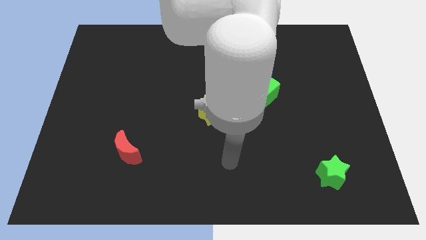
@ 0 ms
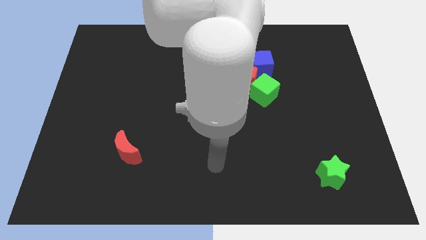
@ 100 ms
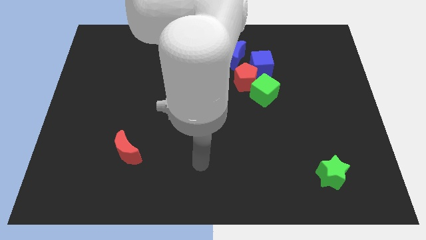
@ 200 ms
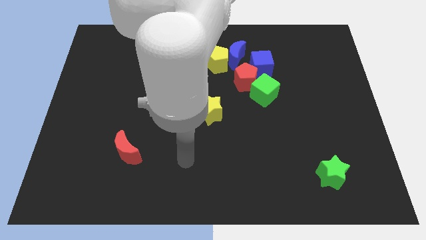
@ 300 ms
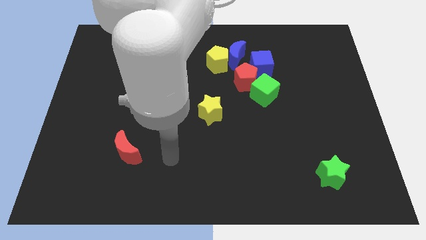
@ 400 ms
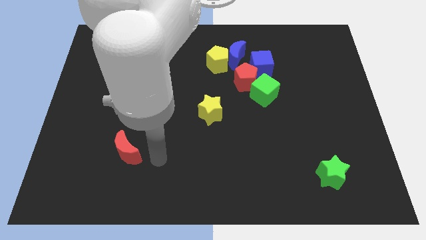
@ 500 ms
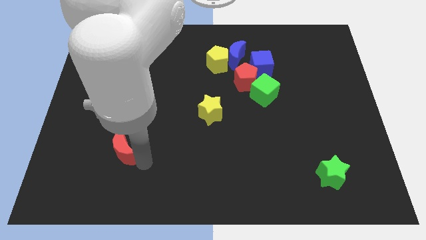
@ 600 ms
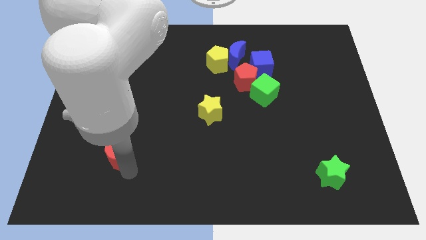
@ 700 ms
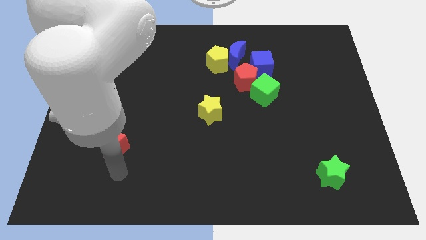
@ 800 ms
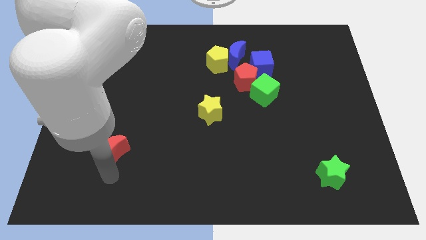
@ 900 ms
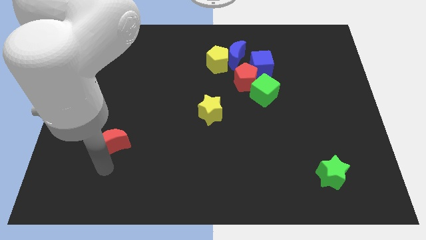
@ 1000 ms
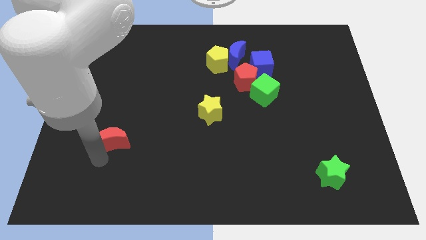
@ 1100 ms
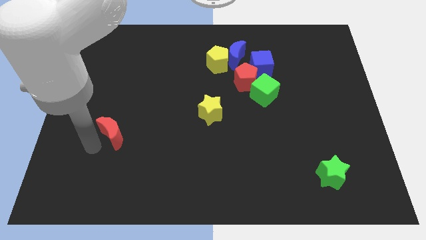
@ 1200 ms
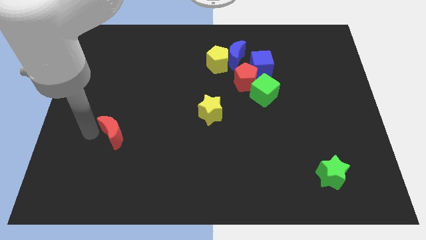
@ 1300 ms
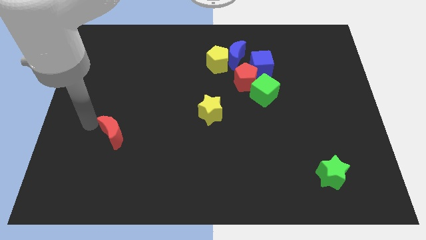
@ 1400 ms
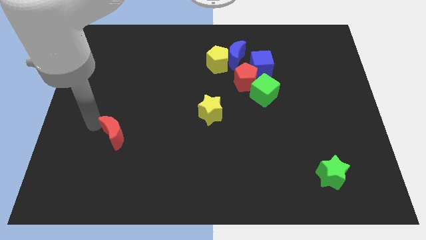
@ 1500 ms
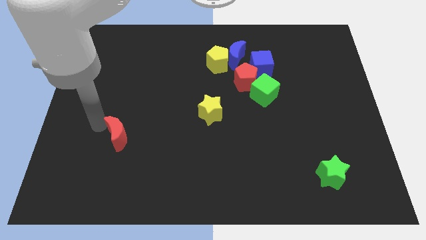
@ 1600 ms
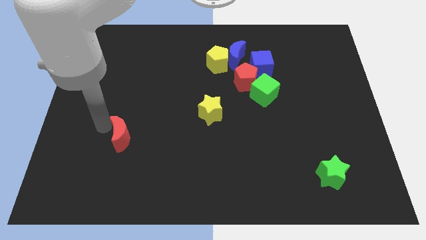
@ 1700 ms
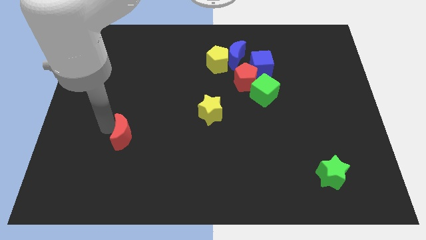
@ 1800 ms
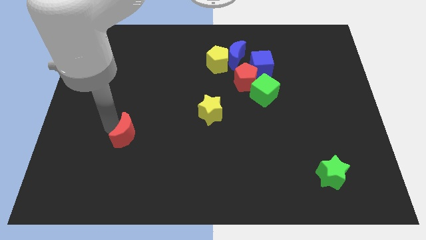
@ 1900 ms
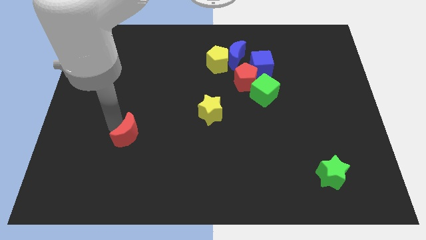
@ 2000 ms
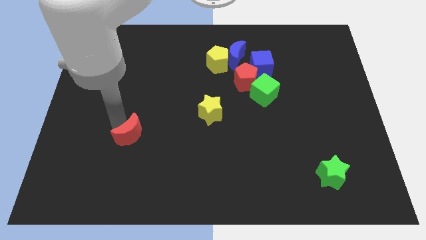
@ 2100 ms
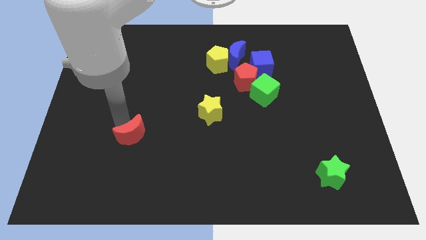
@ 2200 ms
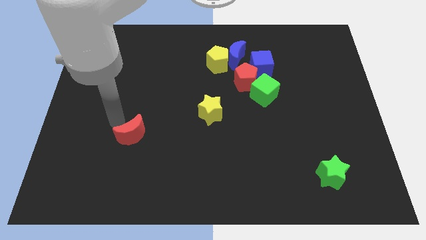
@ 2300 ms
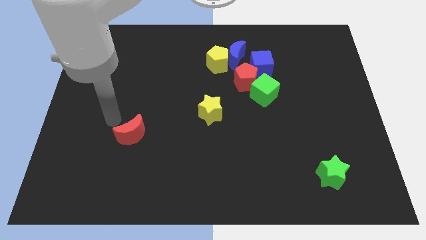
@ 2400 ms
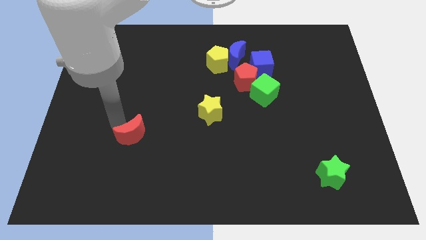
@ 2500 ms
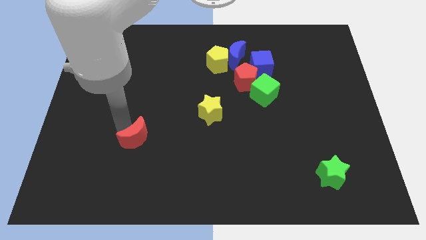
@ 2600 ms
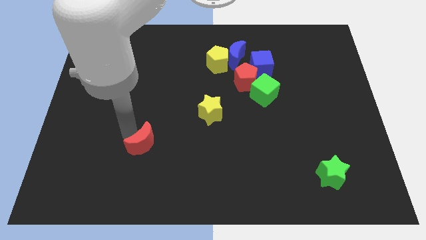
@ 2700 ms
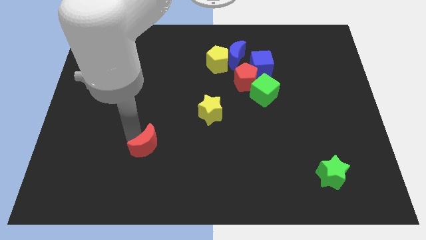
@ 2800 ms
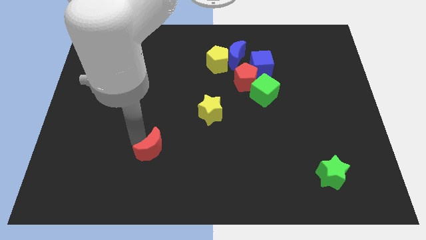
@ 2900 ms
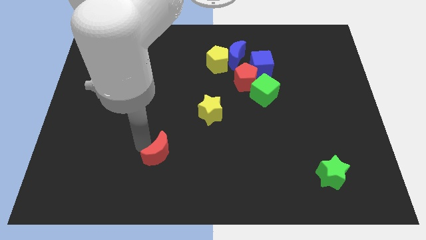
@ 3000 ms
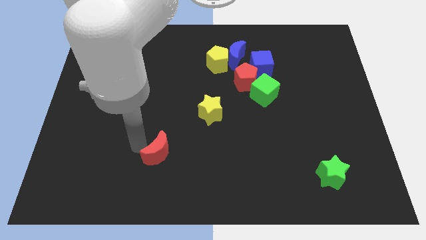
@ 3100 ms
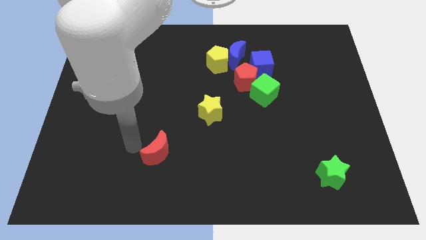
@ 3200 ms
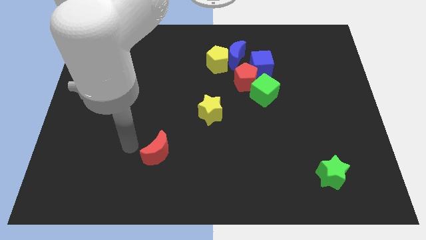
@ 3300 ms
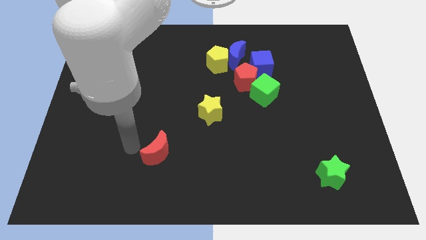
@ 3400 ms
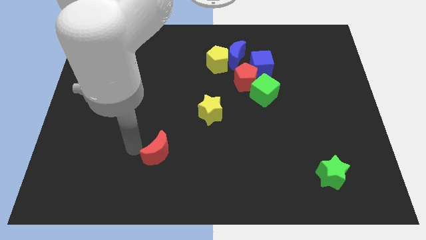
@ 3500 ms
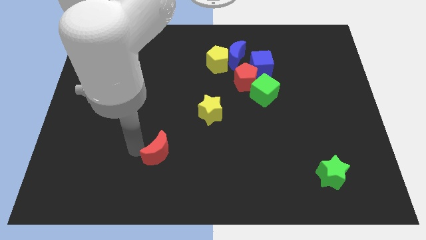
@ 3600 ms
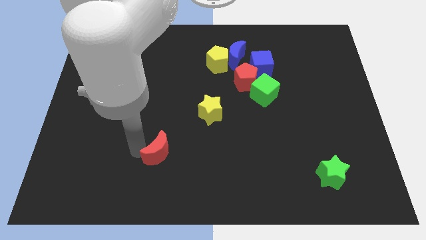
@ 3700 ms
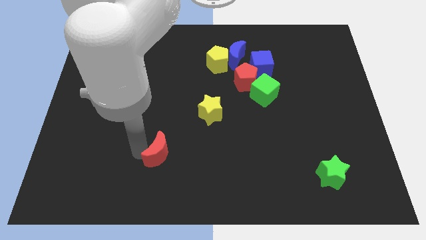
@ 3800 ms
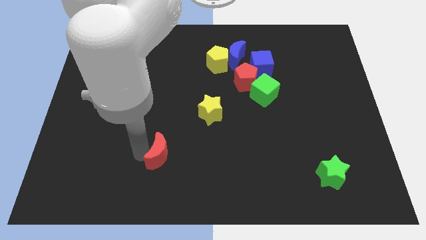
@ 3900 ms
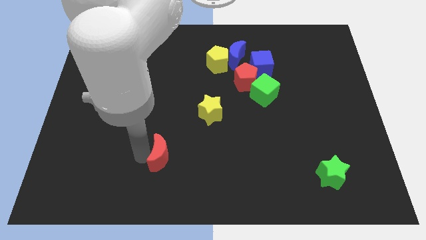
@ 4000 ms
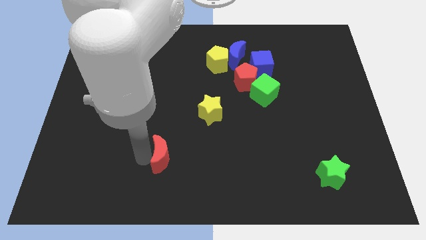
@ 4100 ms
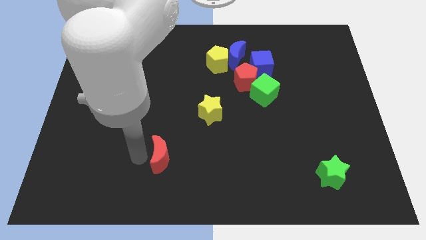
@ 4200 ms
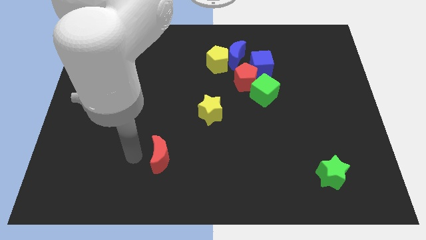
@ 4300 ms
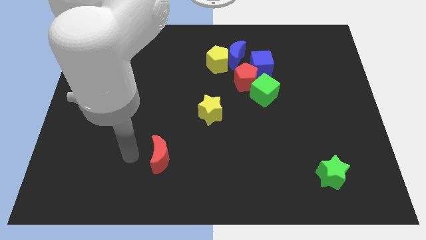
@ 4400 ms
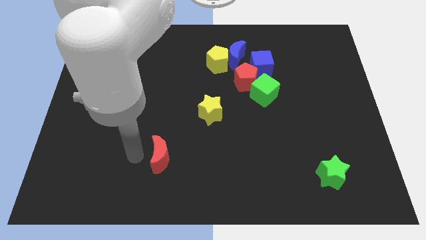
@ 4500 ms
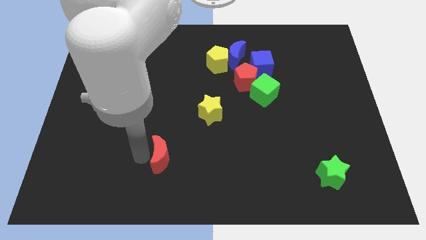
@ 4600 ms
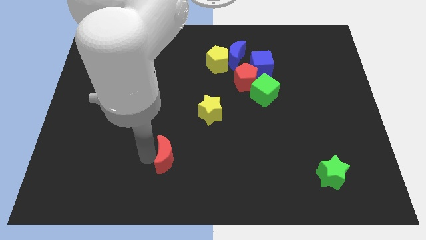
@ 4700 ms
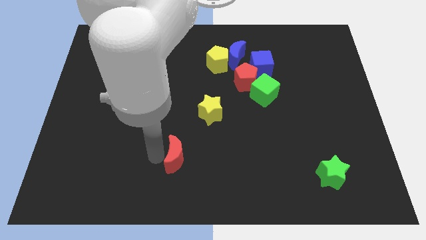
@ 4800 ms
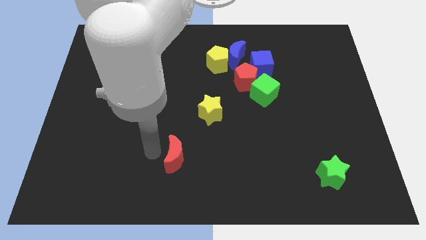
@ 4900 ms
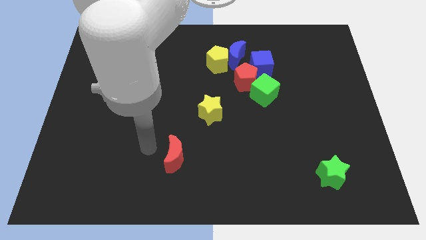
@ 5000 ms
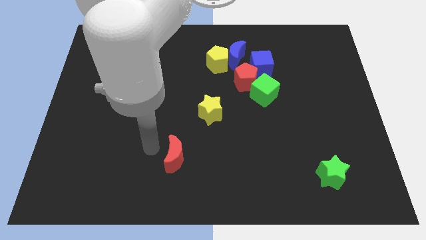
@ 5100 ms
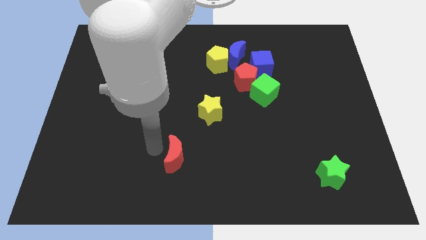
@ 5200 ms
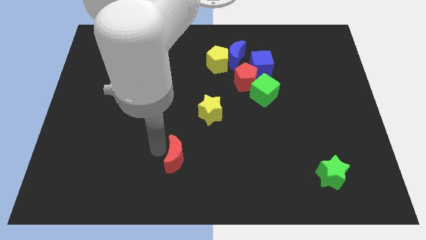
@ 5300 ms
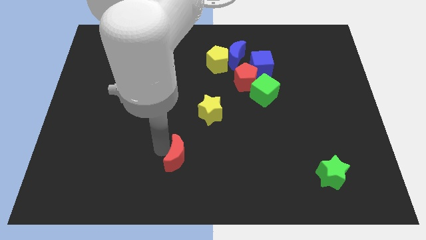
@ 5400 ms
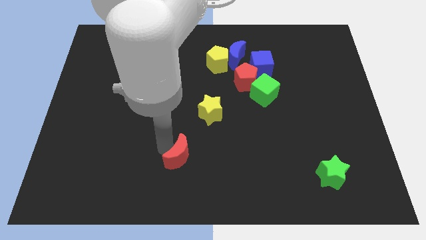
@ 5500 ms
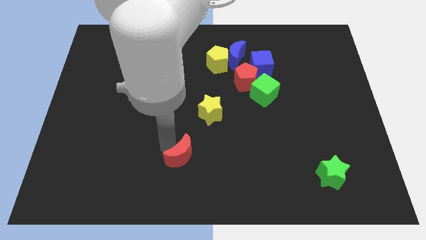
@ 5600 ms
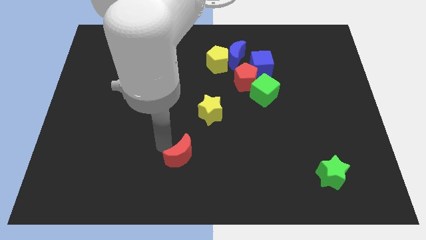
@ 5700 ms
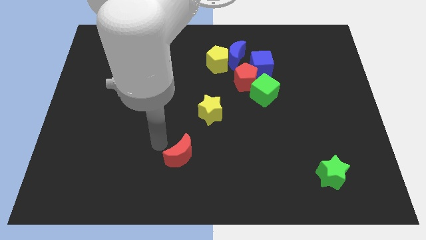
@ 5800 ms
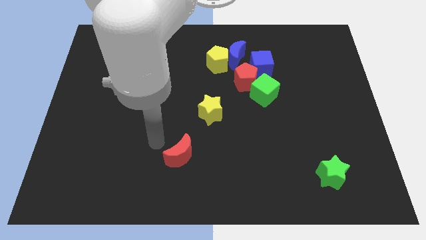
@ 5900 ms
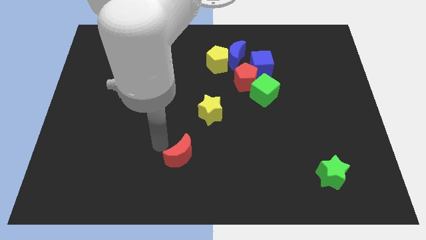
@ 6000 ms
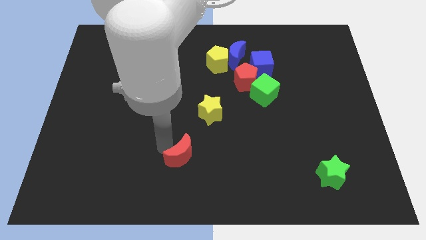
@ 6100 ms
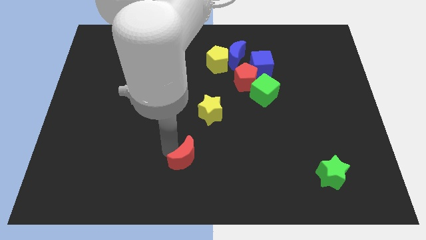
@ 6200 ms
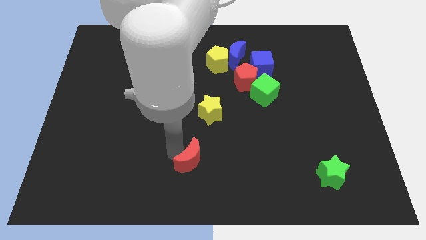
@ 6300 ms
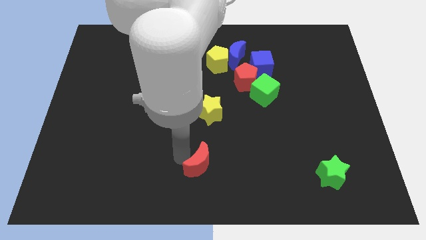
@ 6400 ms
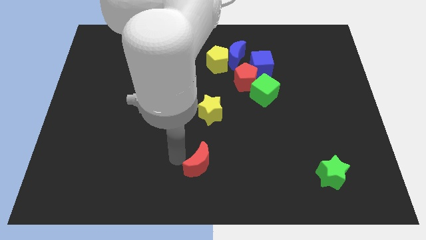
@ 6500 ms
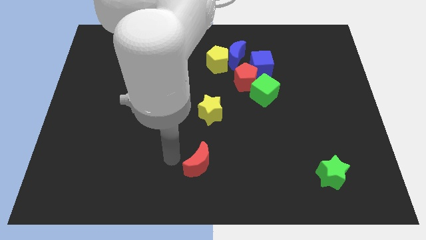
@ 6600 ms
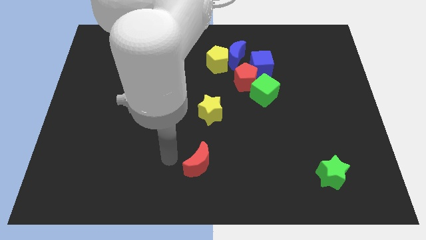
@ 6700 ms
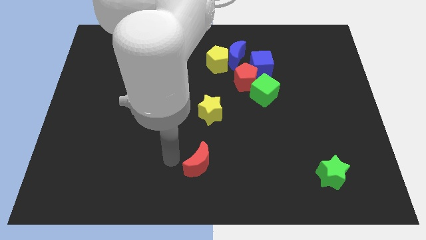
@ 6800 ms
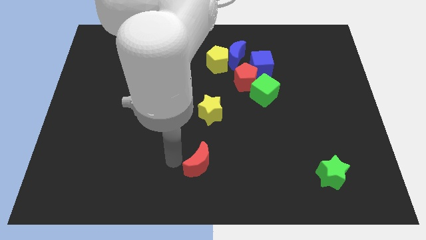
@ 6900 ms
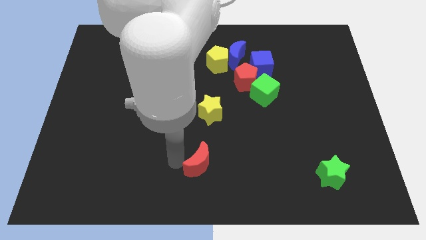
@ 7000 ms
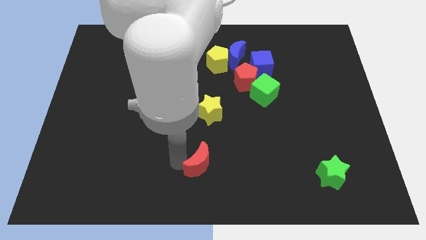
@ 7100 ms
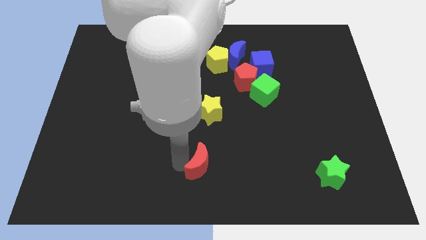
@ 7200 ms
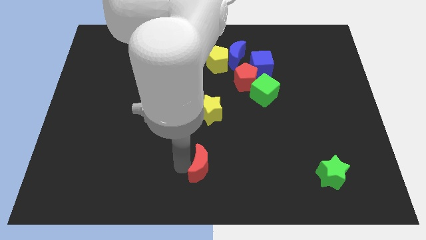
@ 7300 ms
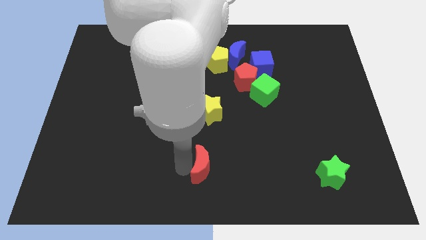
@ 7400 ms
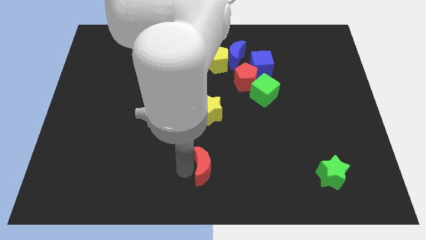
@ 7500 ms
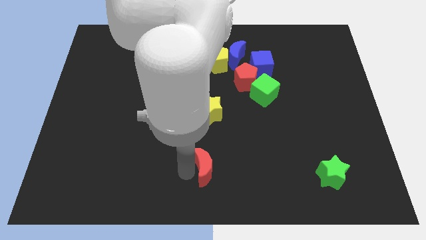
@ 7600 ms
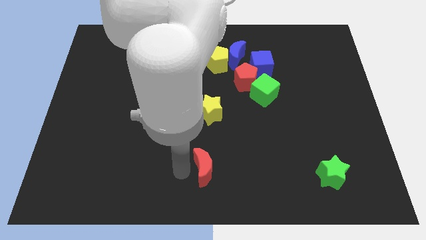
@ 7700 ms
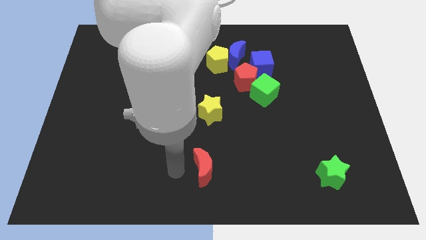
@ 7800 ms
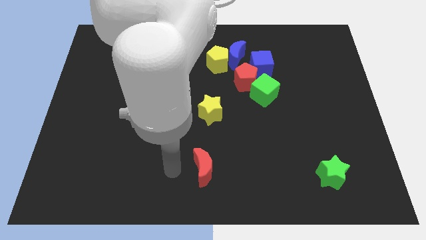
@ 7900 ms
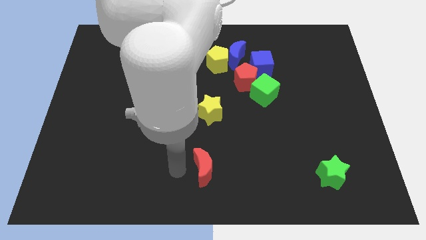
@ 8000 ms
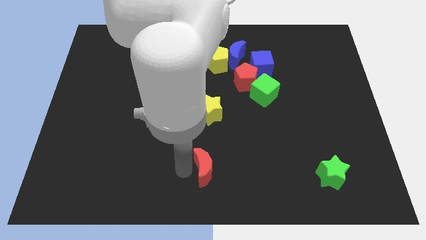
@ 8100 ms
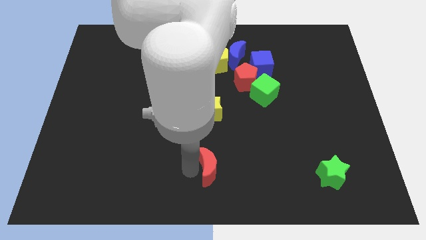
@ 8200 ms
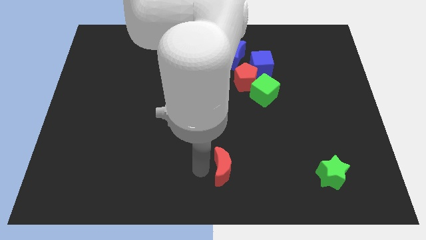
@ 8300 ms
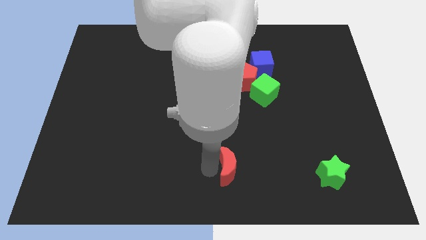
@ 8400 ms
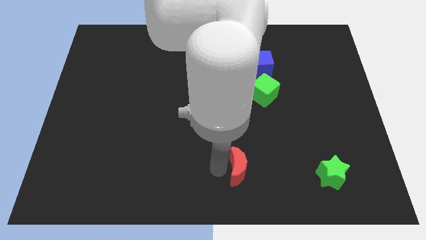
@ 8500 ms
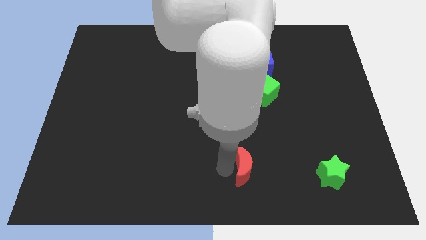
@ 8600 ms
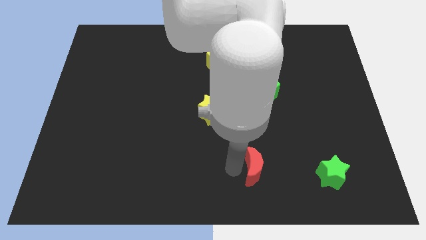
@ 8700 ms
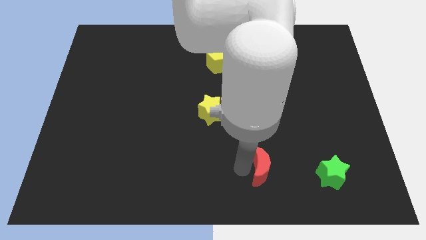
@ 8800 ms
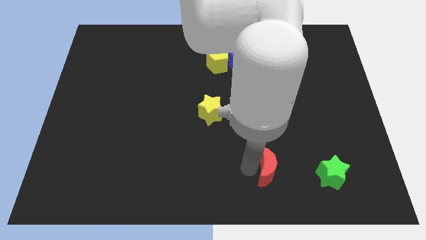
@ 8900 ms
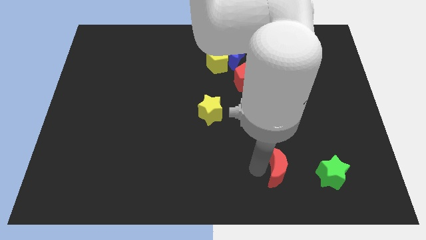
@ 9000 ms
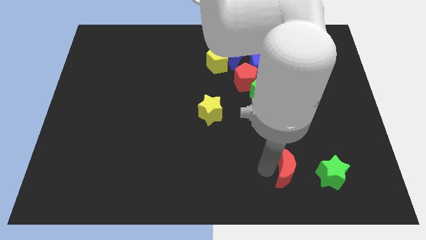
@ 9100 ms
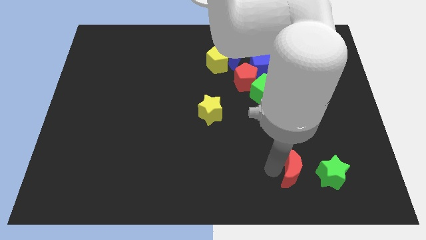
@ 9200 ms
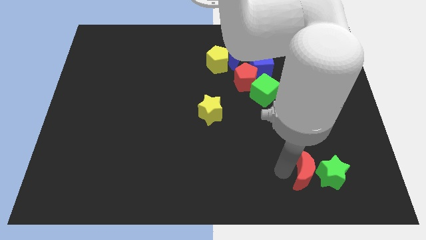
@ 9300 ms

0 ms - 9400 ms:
move the red moon to the green star
